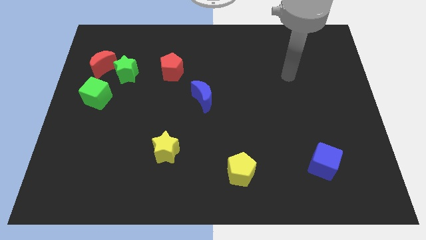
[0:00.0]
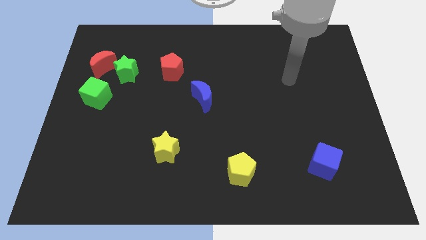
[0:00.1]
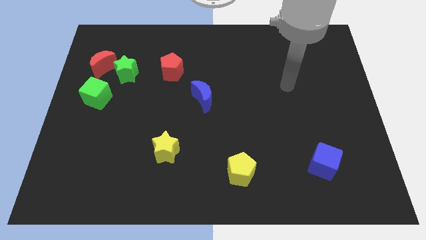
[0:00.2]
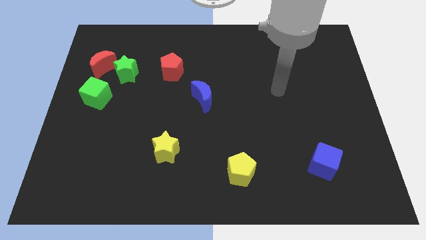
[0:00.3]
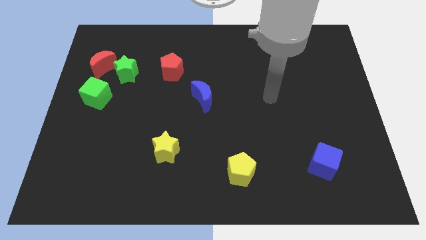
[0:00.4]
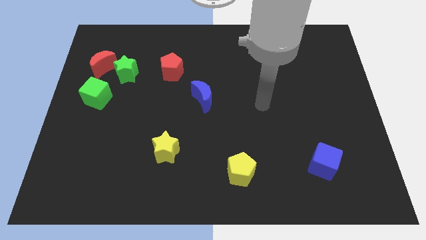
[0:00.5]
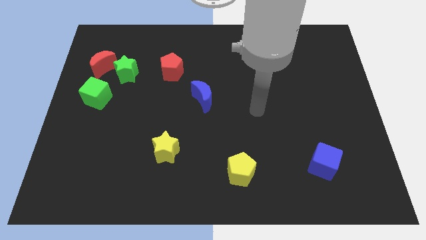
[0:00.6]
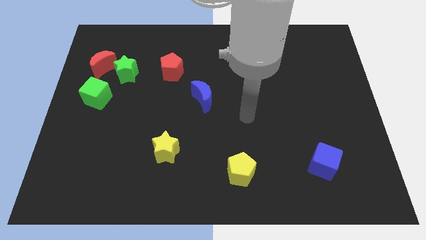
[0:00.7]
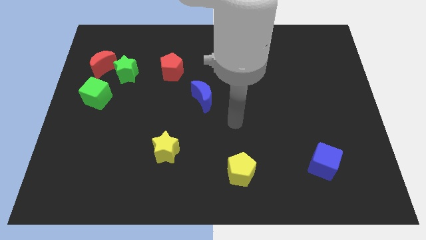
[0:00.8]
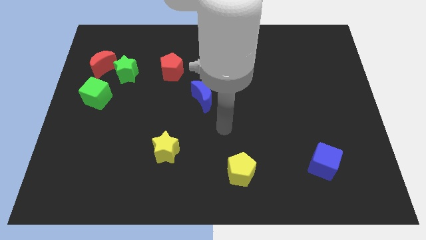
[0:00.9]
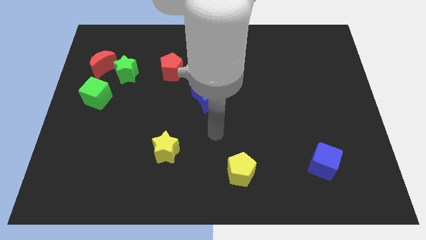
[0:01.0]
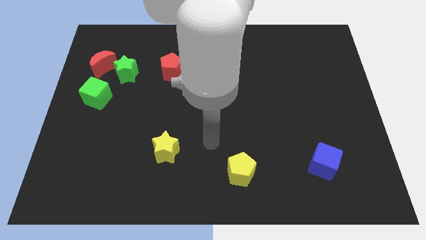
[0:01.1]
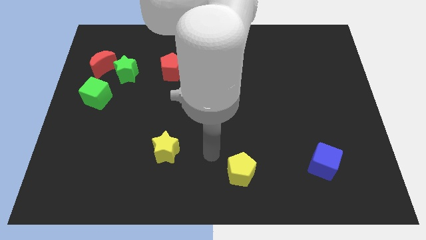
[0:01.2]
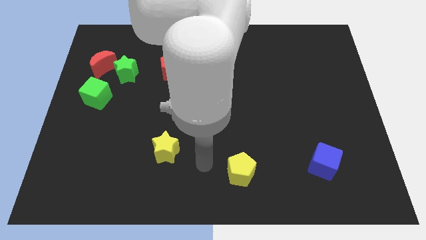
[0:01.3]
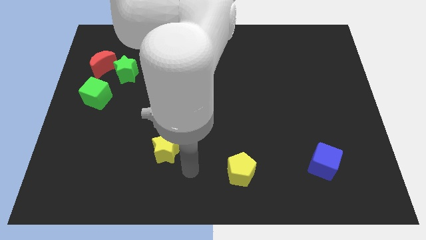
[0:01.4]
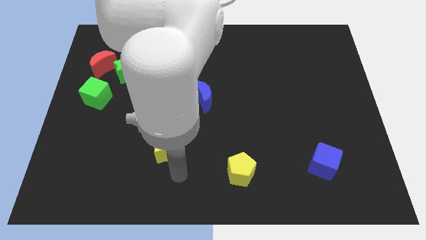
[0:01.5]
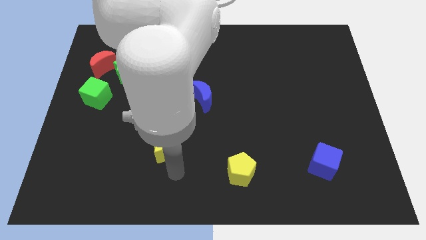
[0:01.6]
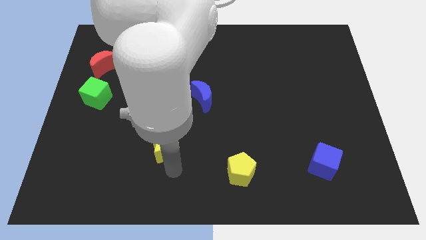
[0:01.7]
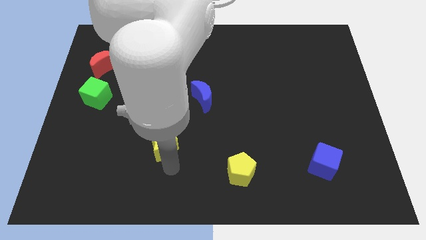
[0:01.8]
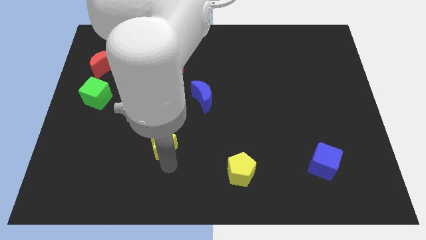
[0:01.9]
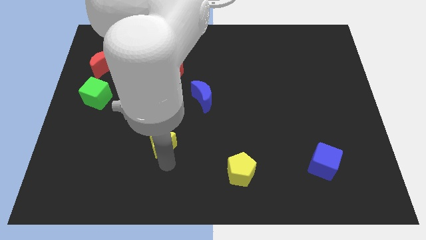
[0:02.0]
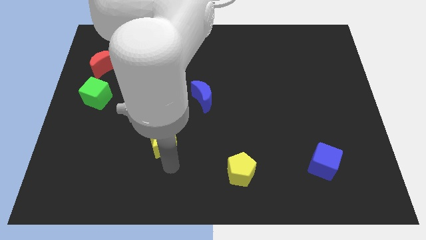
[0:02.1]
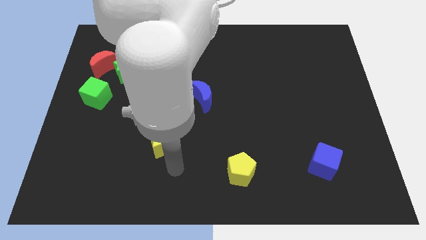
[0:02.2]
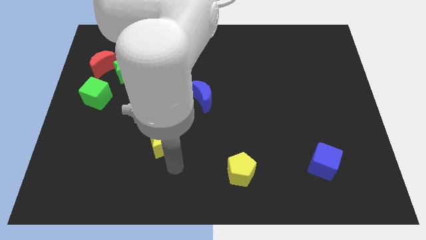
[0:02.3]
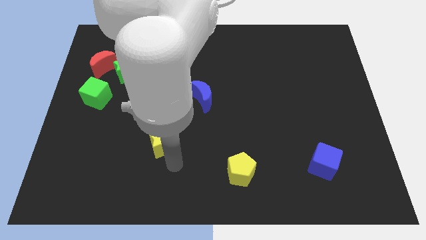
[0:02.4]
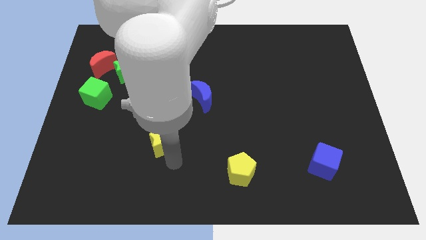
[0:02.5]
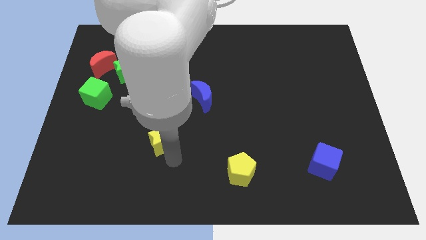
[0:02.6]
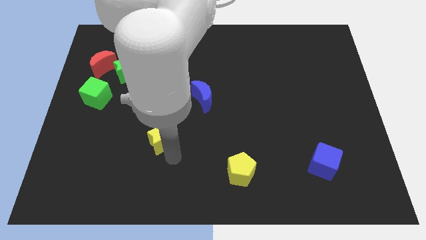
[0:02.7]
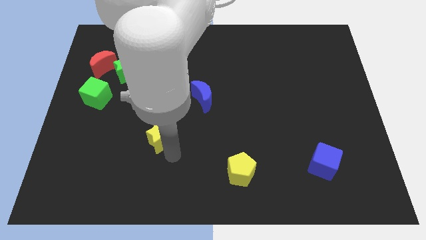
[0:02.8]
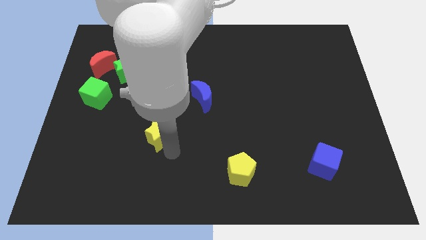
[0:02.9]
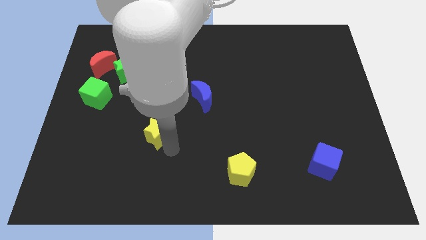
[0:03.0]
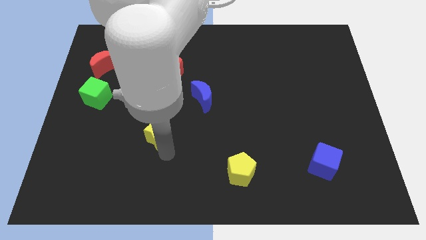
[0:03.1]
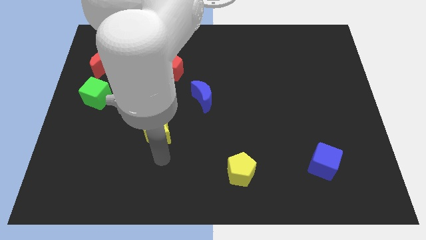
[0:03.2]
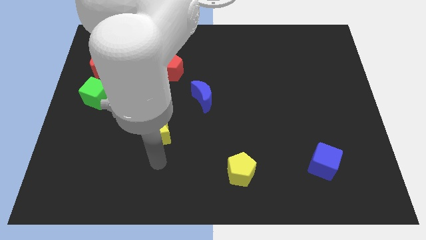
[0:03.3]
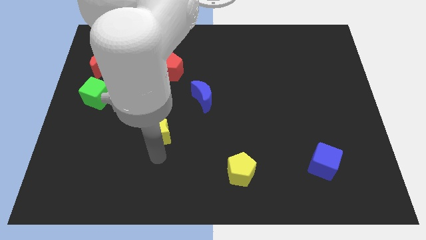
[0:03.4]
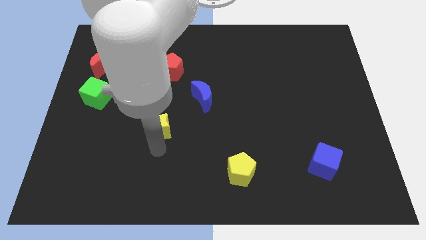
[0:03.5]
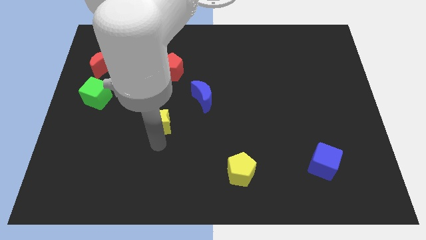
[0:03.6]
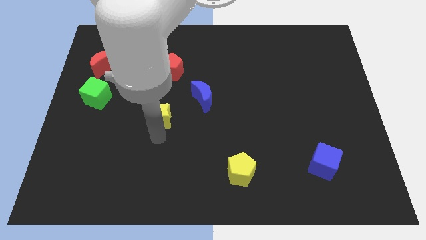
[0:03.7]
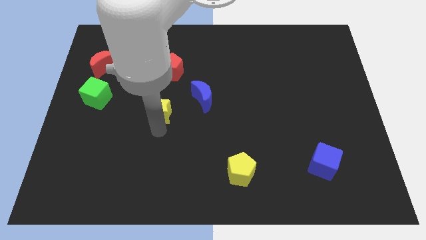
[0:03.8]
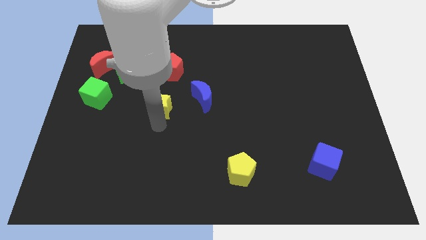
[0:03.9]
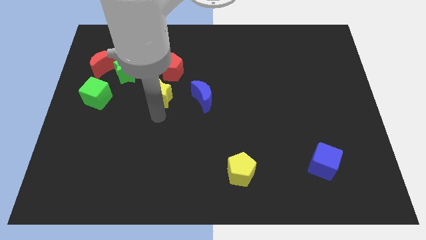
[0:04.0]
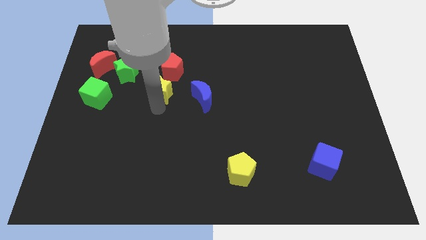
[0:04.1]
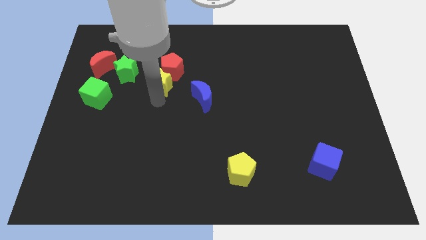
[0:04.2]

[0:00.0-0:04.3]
put the yellow star towards the red pentagon

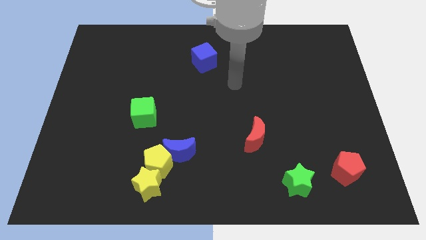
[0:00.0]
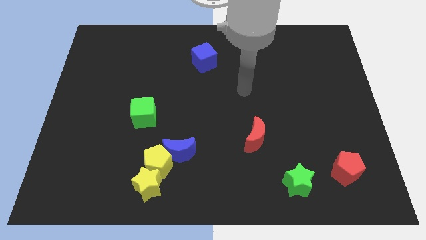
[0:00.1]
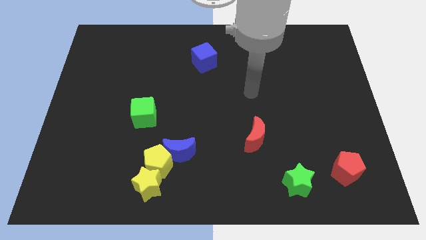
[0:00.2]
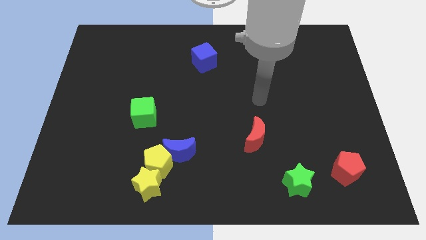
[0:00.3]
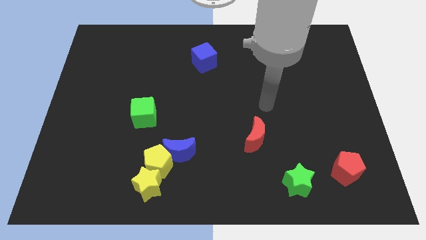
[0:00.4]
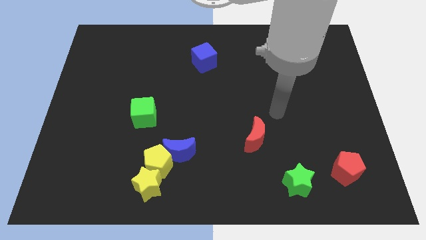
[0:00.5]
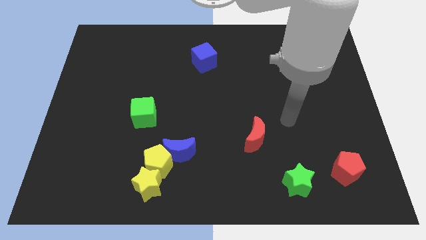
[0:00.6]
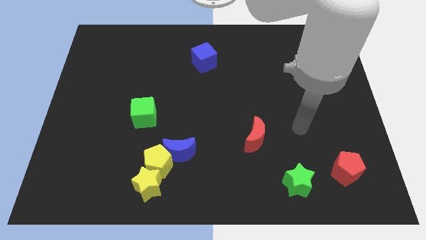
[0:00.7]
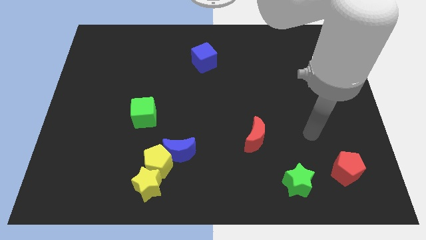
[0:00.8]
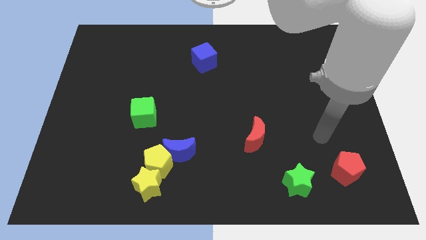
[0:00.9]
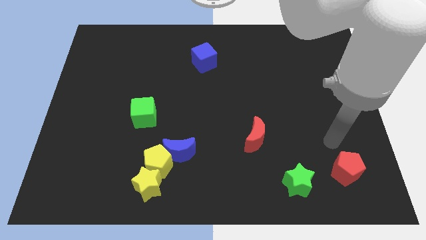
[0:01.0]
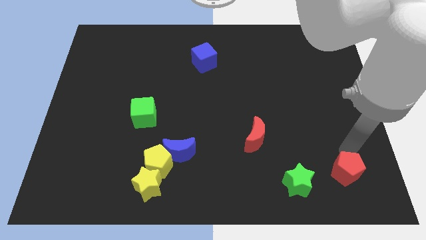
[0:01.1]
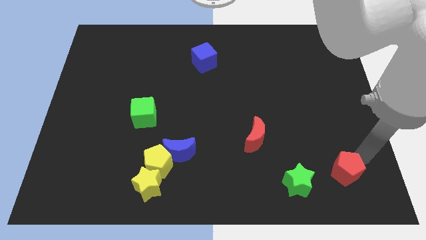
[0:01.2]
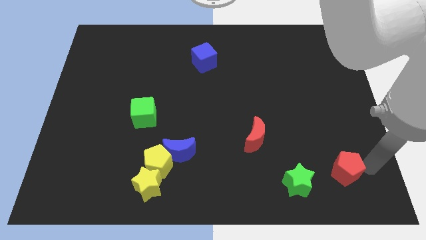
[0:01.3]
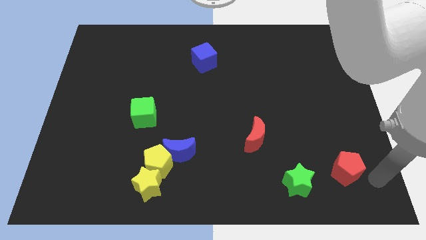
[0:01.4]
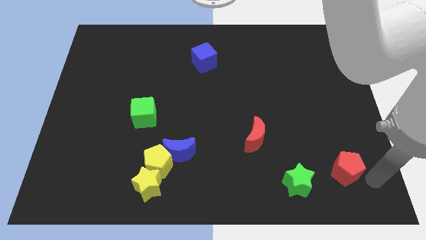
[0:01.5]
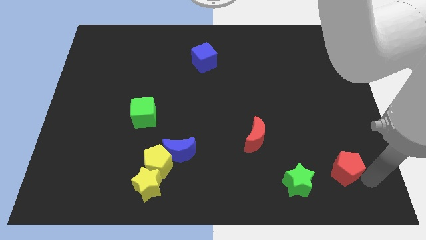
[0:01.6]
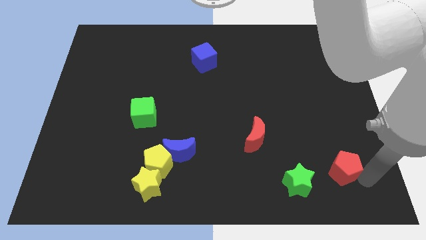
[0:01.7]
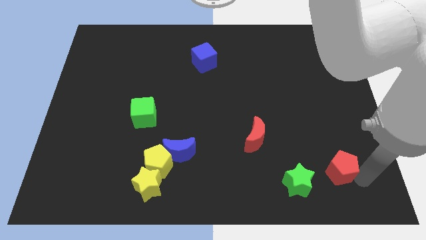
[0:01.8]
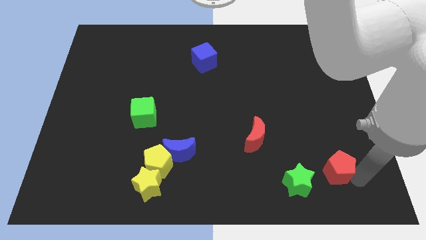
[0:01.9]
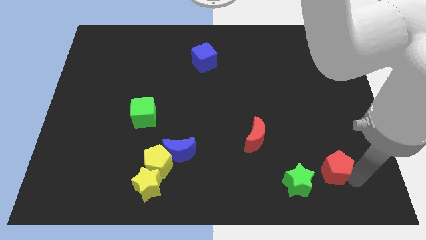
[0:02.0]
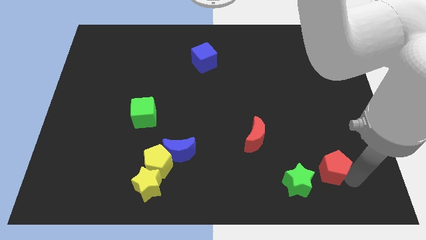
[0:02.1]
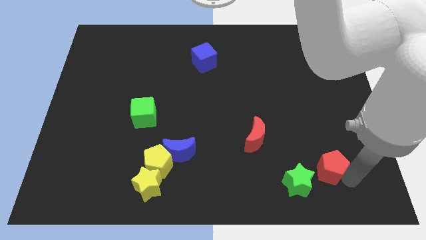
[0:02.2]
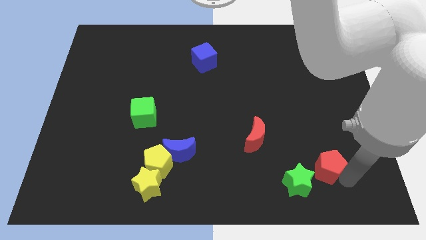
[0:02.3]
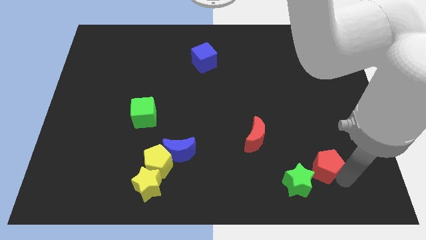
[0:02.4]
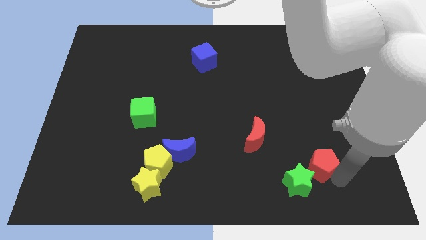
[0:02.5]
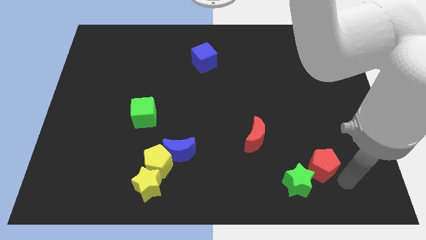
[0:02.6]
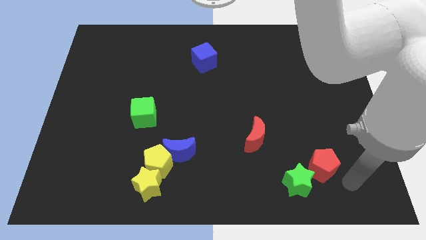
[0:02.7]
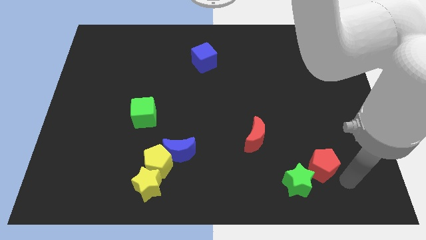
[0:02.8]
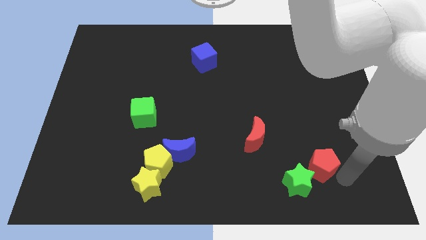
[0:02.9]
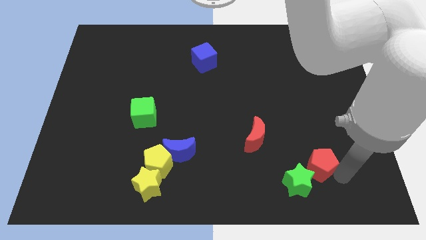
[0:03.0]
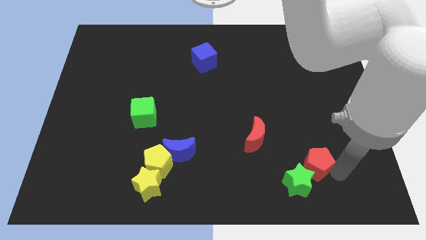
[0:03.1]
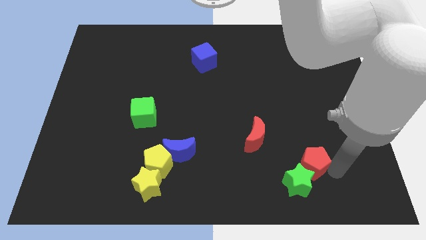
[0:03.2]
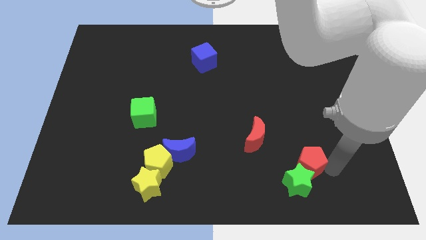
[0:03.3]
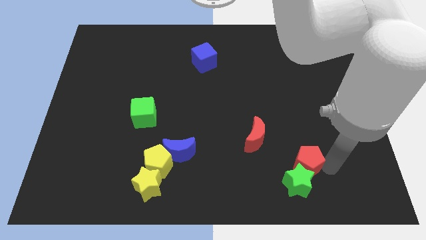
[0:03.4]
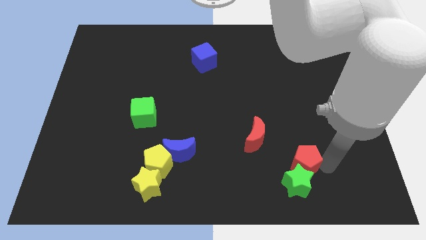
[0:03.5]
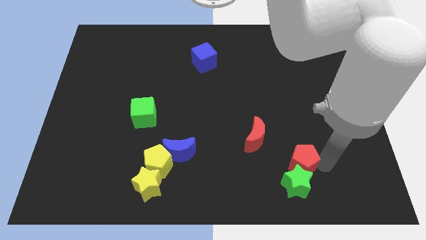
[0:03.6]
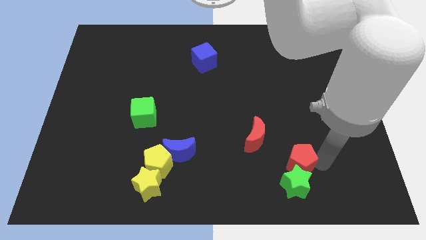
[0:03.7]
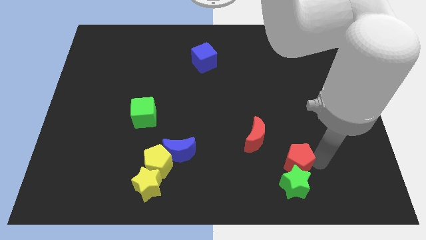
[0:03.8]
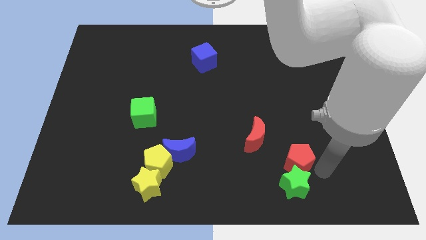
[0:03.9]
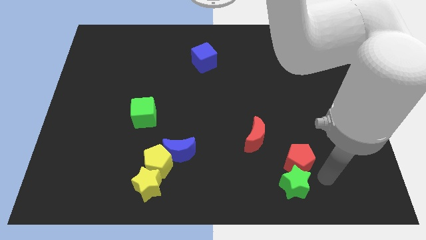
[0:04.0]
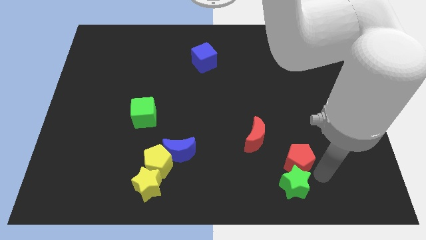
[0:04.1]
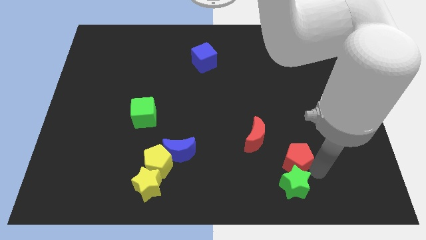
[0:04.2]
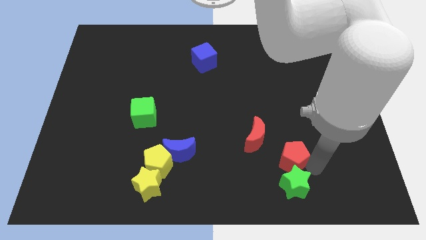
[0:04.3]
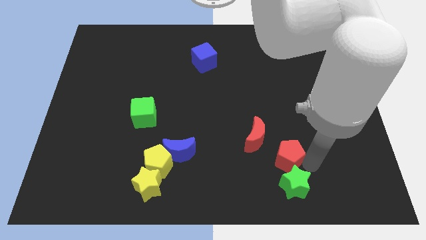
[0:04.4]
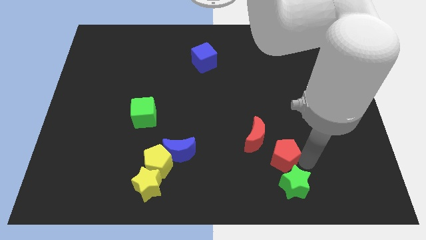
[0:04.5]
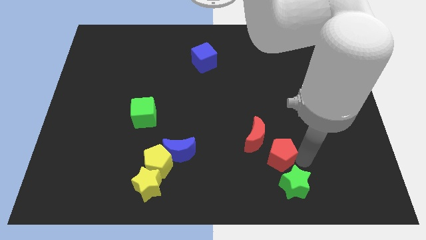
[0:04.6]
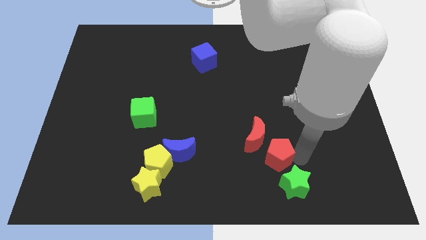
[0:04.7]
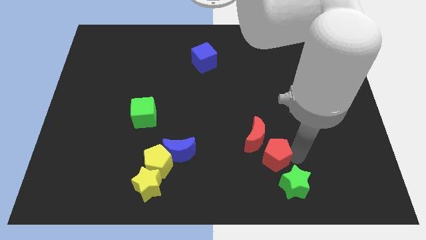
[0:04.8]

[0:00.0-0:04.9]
slide the red pentagon to the red moon
